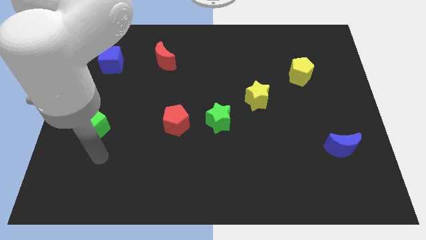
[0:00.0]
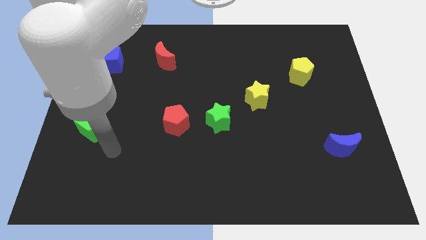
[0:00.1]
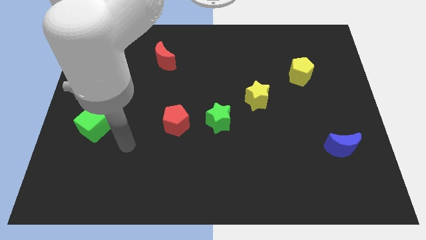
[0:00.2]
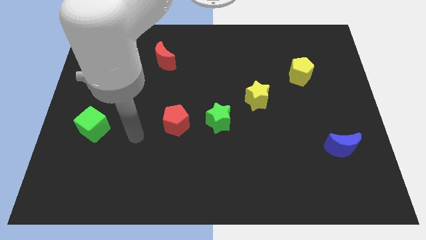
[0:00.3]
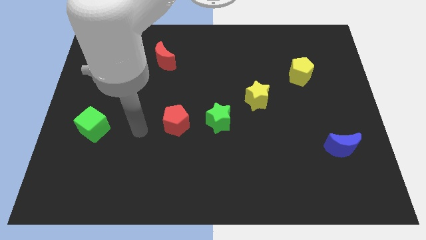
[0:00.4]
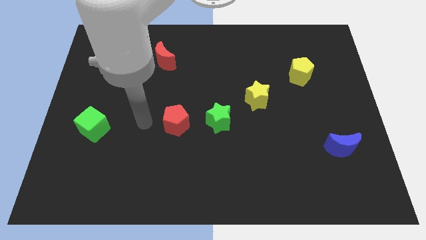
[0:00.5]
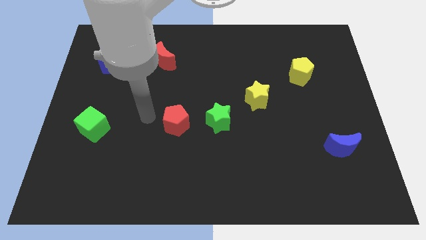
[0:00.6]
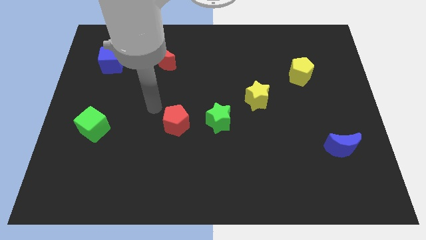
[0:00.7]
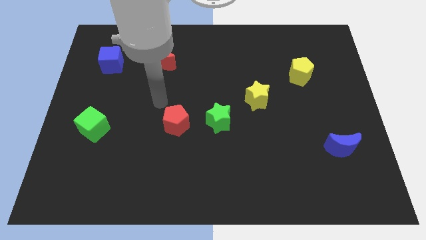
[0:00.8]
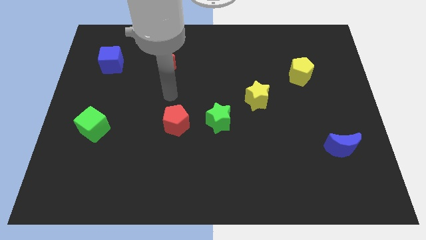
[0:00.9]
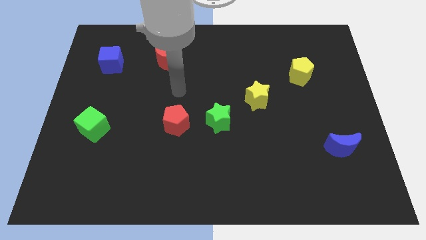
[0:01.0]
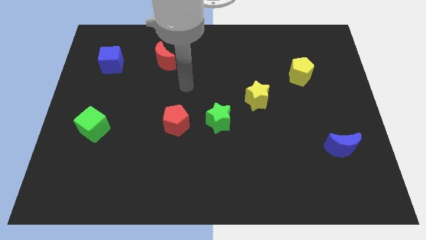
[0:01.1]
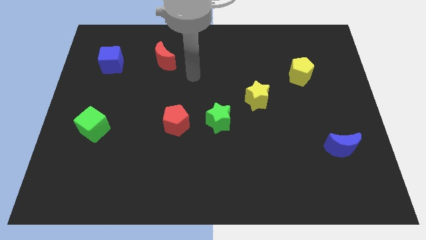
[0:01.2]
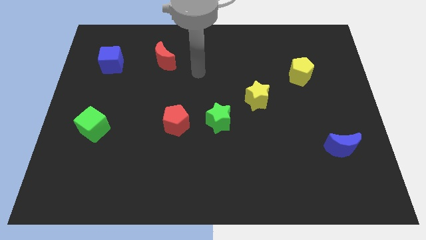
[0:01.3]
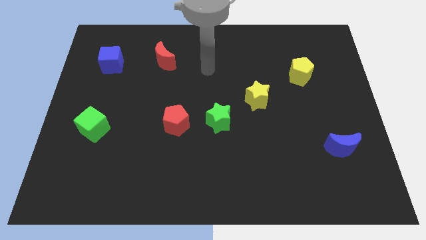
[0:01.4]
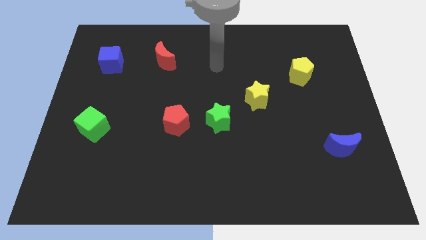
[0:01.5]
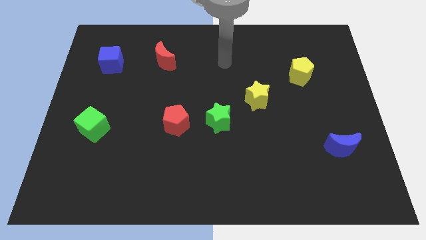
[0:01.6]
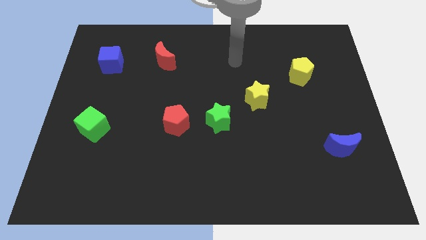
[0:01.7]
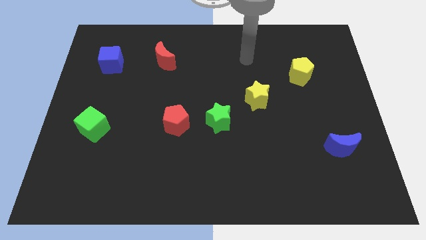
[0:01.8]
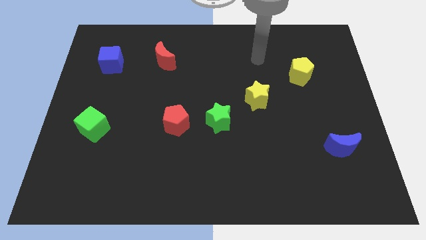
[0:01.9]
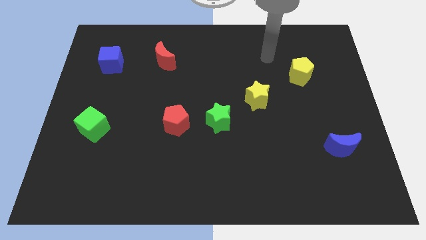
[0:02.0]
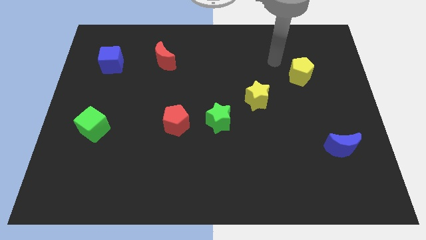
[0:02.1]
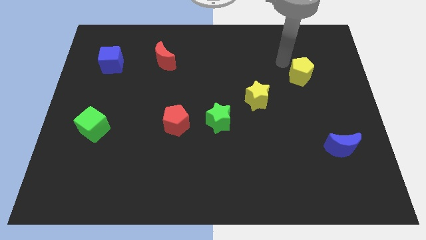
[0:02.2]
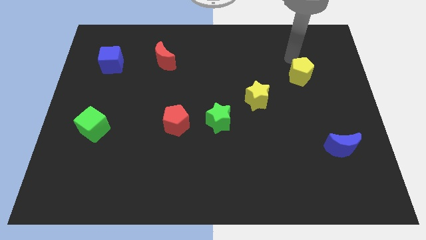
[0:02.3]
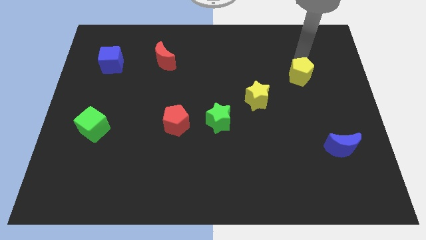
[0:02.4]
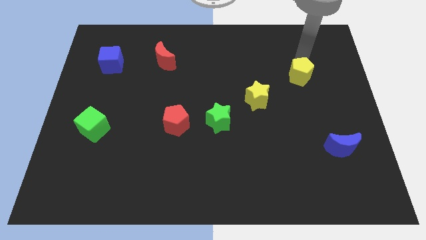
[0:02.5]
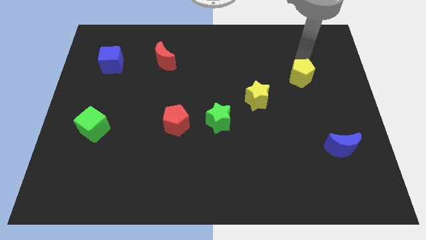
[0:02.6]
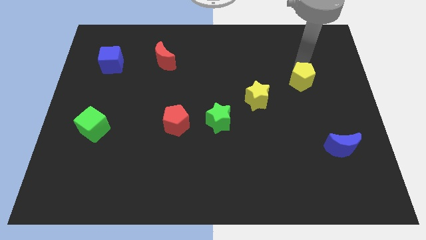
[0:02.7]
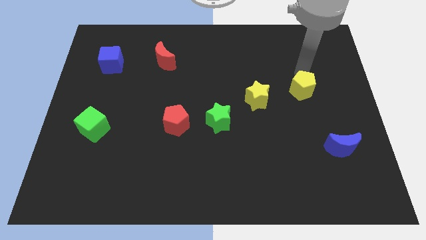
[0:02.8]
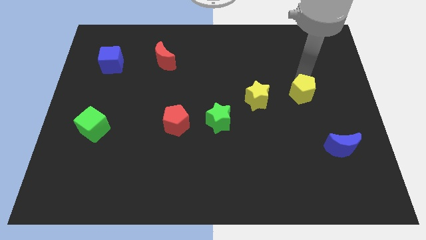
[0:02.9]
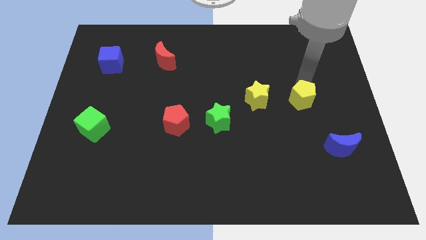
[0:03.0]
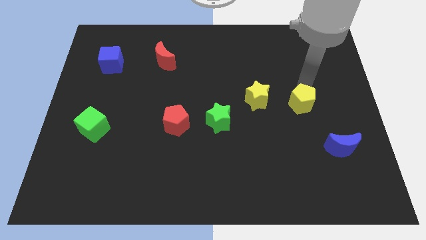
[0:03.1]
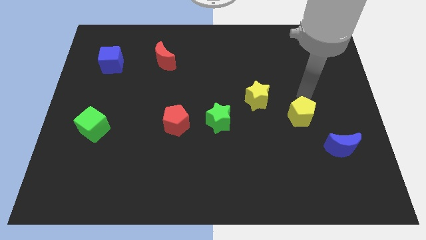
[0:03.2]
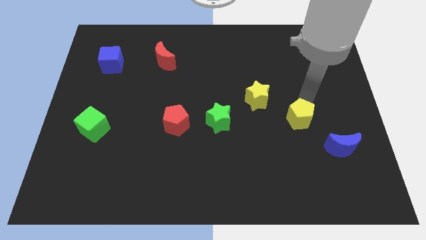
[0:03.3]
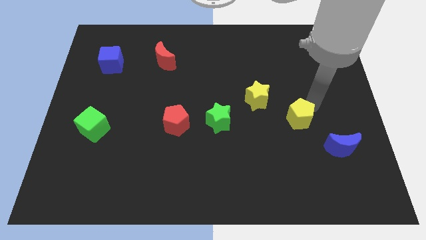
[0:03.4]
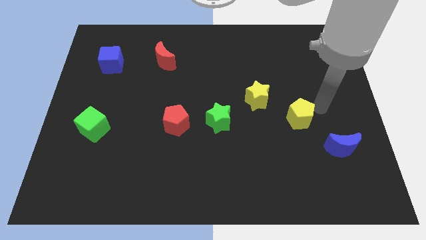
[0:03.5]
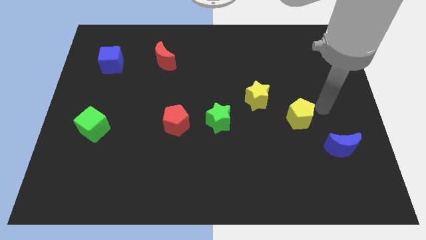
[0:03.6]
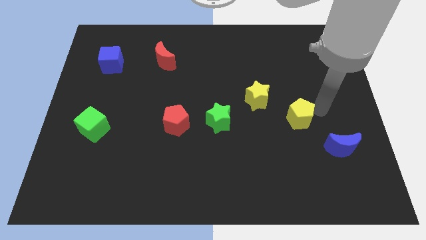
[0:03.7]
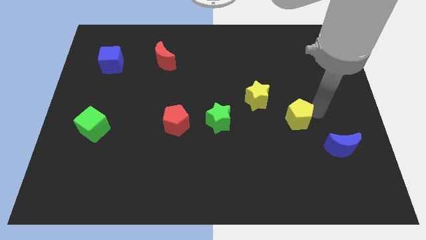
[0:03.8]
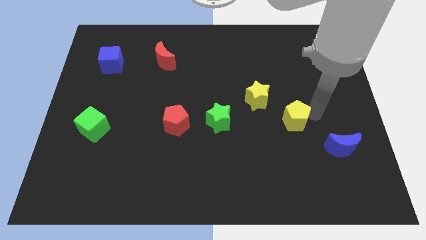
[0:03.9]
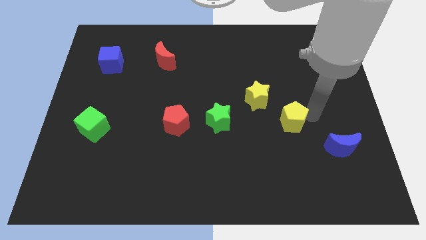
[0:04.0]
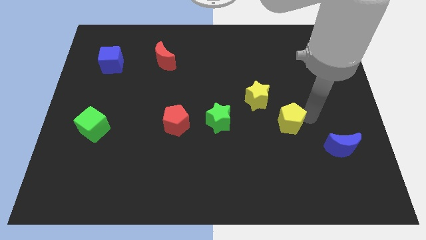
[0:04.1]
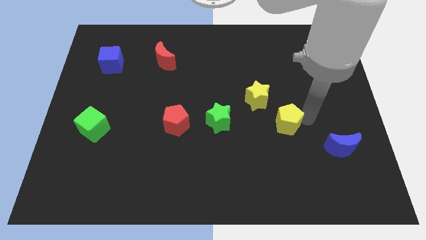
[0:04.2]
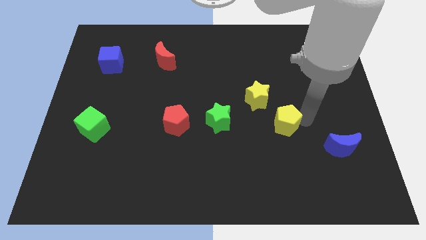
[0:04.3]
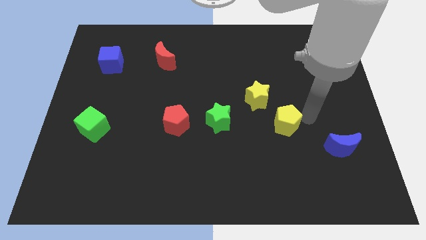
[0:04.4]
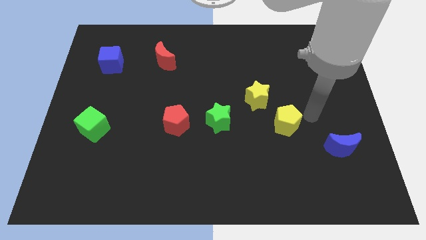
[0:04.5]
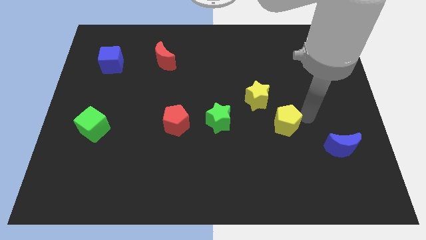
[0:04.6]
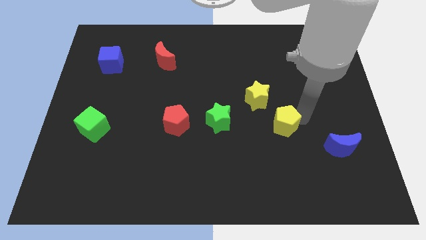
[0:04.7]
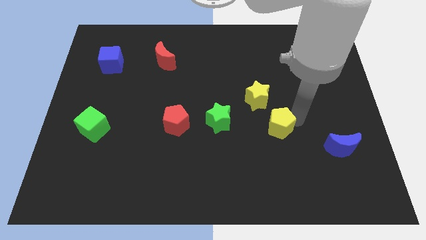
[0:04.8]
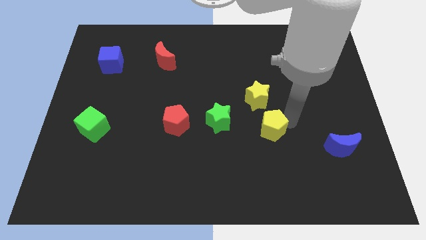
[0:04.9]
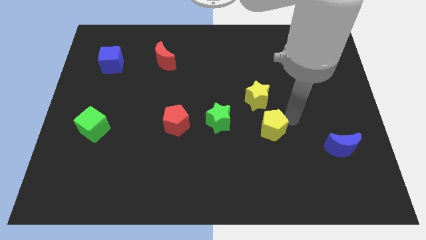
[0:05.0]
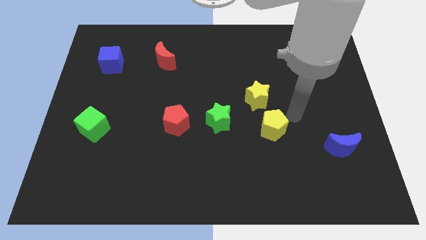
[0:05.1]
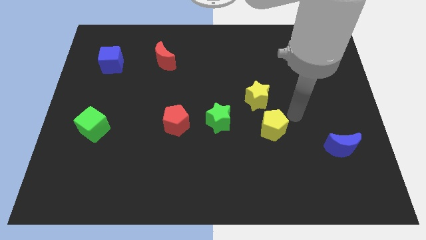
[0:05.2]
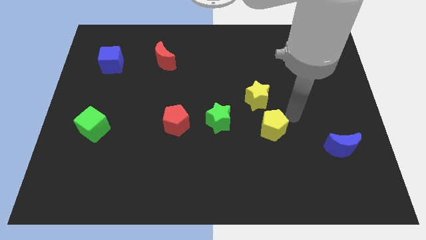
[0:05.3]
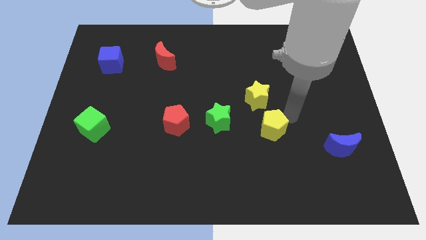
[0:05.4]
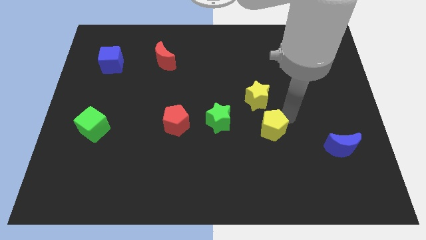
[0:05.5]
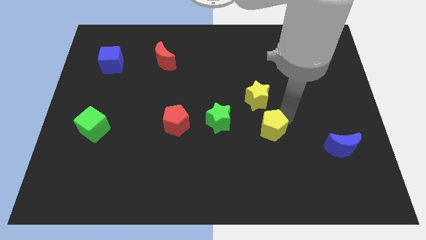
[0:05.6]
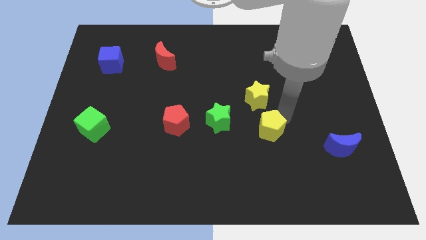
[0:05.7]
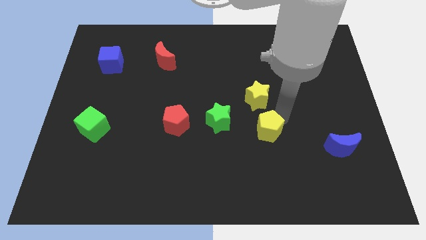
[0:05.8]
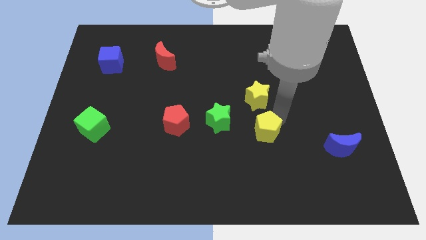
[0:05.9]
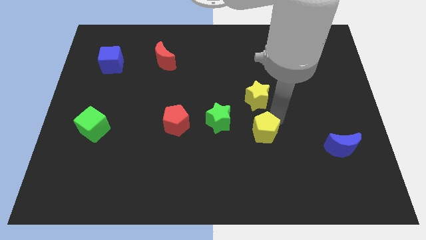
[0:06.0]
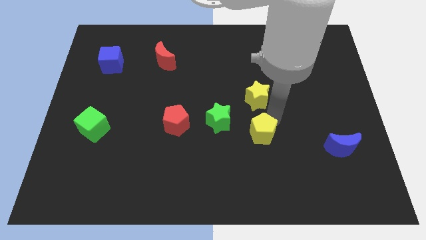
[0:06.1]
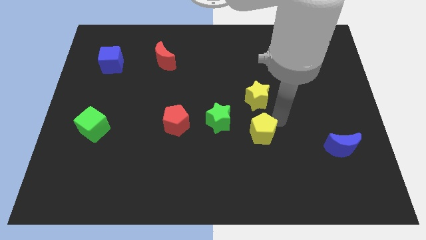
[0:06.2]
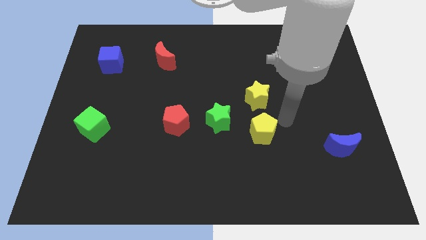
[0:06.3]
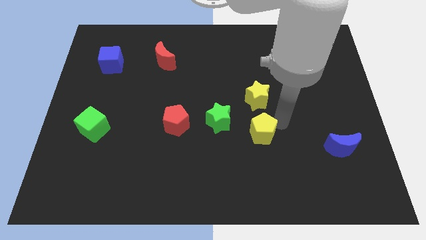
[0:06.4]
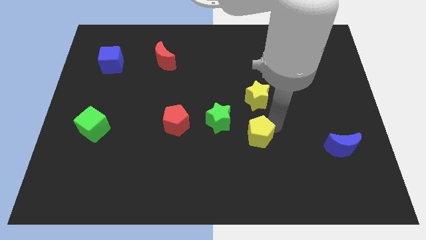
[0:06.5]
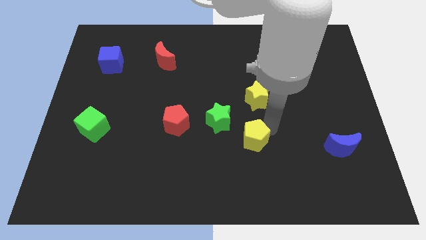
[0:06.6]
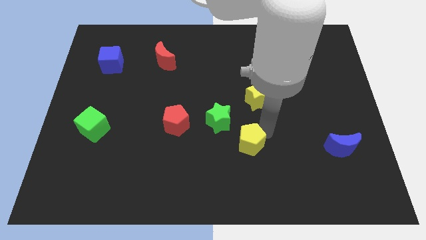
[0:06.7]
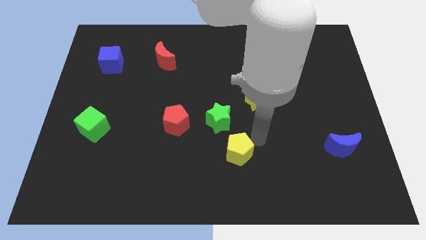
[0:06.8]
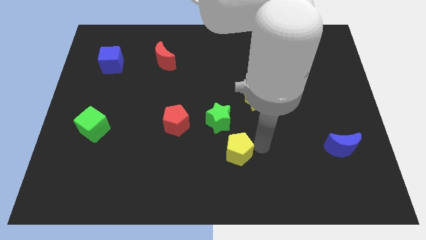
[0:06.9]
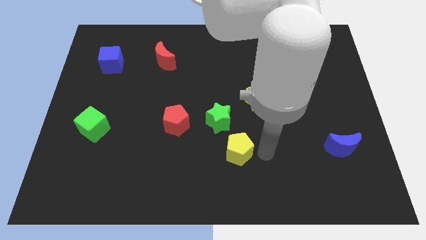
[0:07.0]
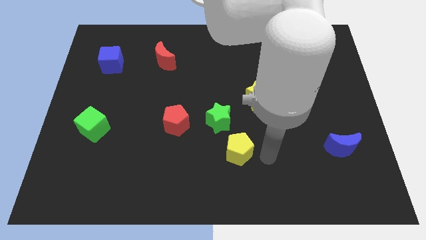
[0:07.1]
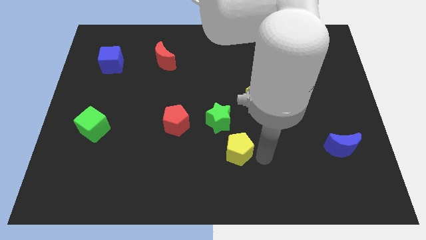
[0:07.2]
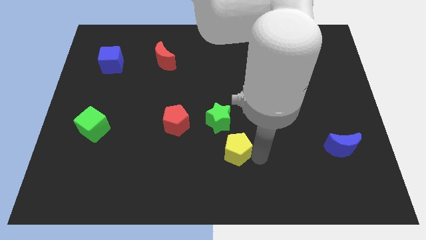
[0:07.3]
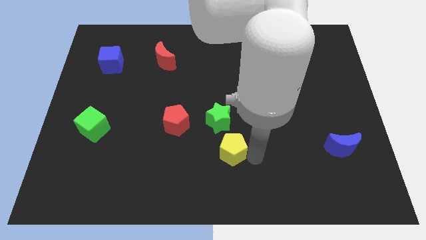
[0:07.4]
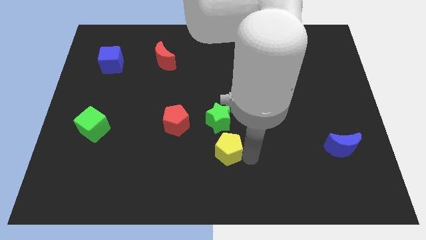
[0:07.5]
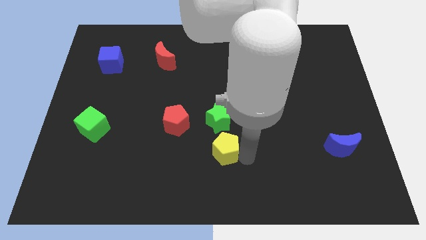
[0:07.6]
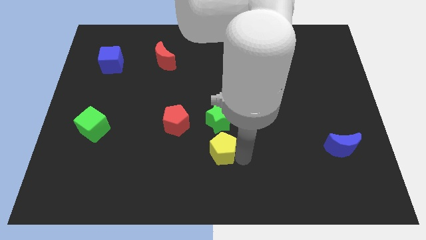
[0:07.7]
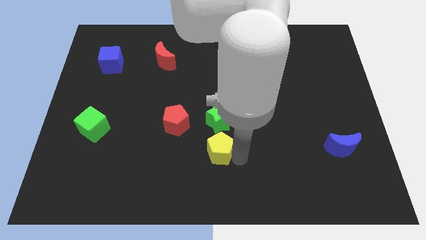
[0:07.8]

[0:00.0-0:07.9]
move the yellow pentagon diagonally down and to the right of the red pentagon
